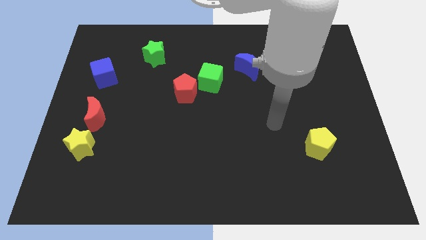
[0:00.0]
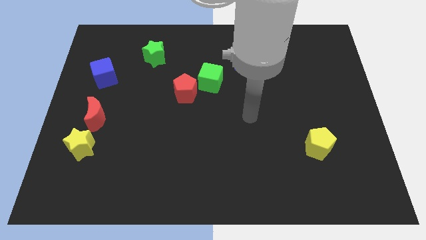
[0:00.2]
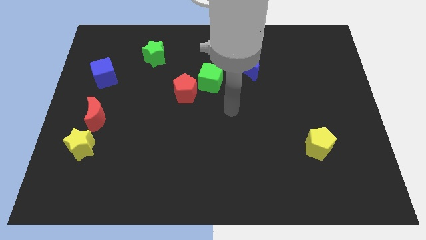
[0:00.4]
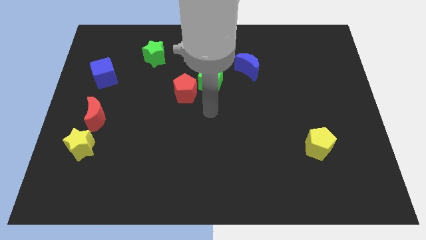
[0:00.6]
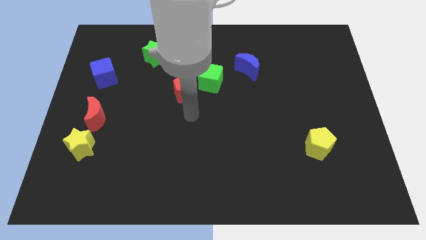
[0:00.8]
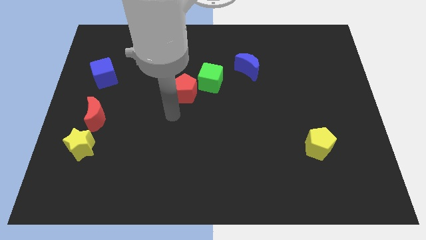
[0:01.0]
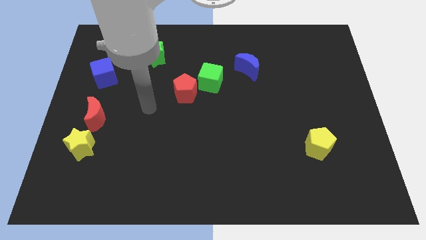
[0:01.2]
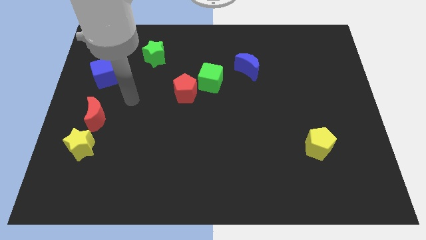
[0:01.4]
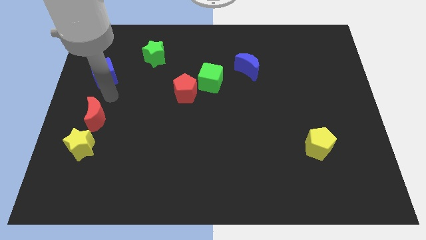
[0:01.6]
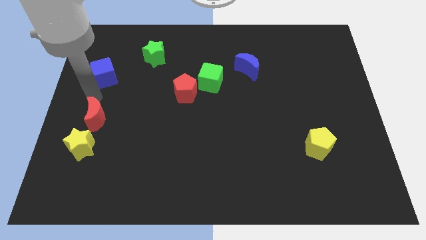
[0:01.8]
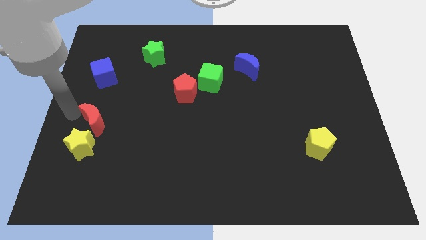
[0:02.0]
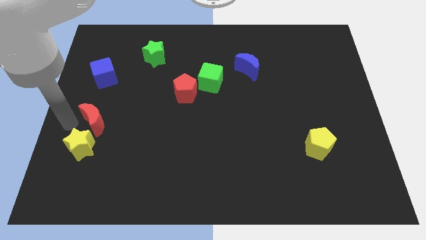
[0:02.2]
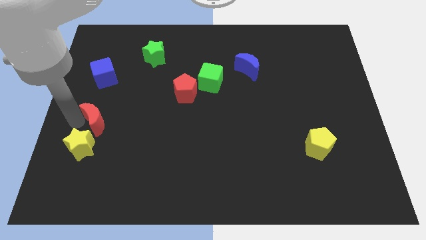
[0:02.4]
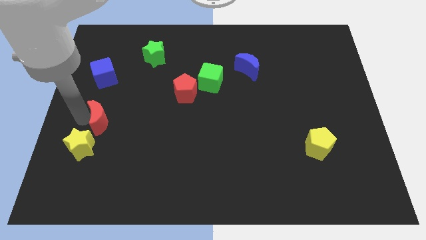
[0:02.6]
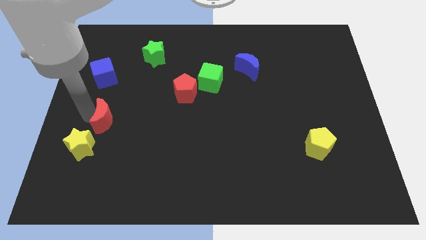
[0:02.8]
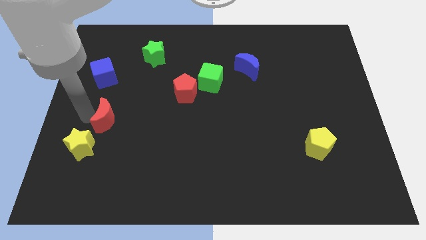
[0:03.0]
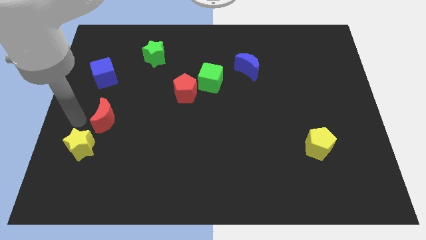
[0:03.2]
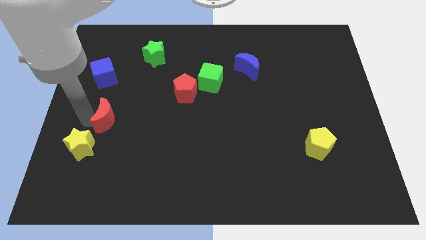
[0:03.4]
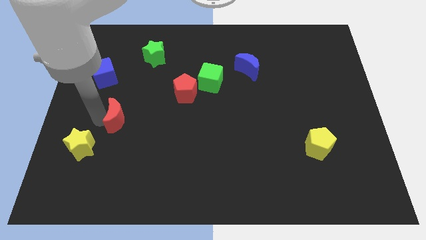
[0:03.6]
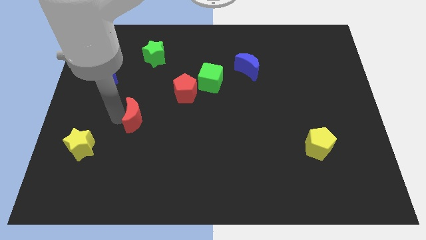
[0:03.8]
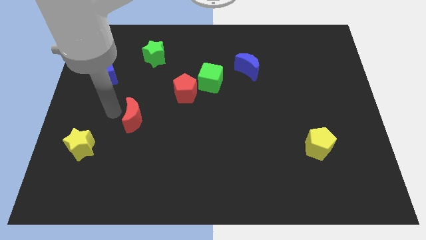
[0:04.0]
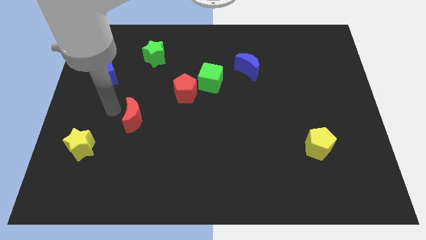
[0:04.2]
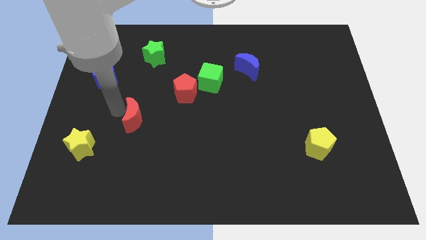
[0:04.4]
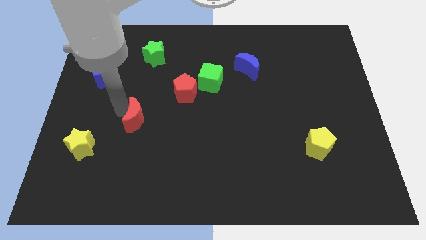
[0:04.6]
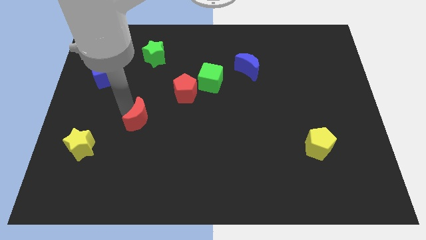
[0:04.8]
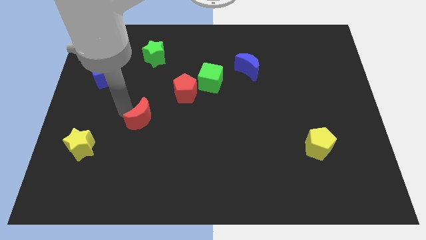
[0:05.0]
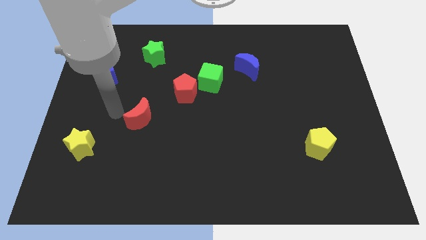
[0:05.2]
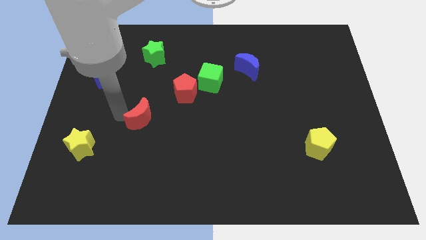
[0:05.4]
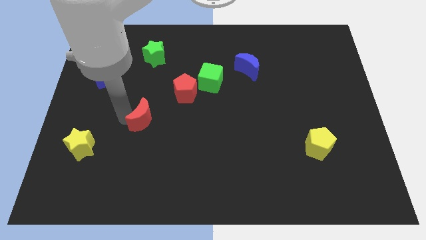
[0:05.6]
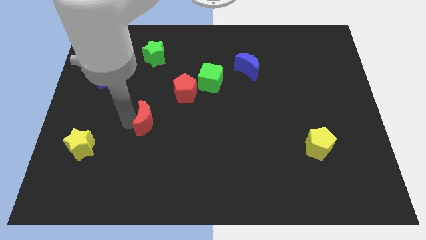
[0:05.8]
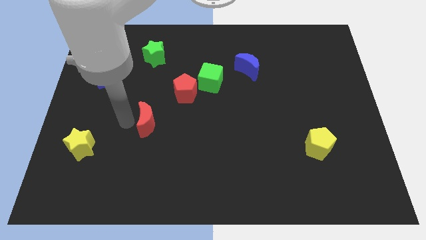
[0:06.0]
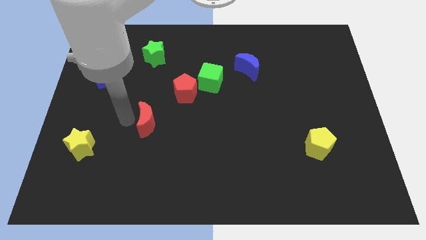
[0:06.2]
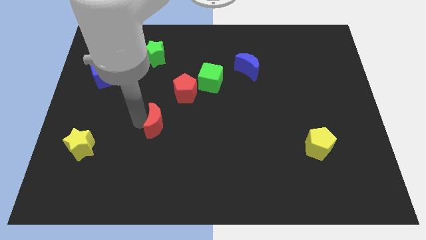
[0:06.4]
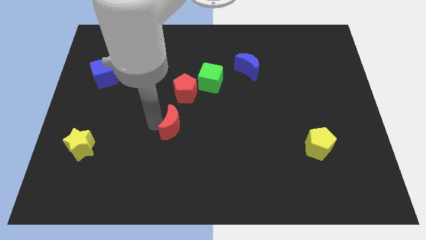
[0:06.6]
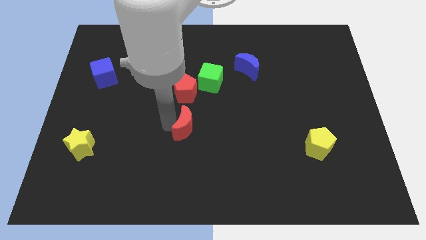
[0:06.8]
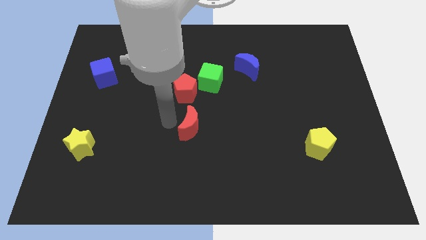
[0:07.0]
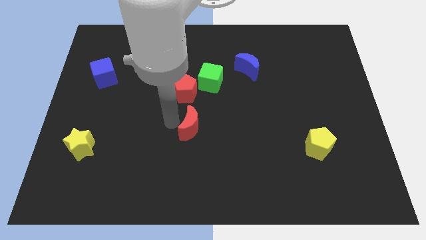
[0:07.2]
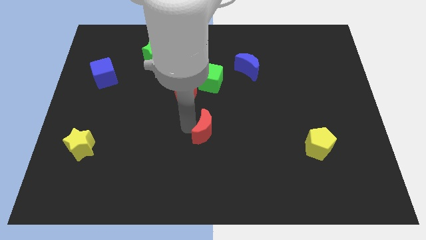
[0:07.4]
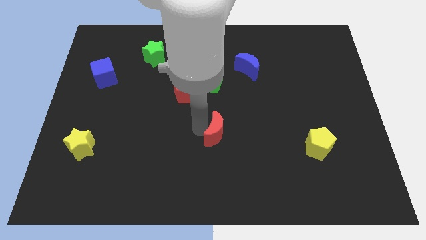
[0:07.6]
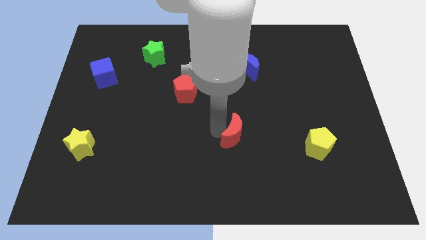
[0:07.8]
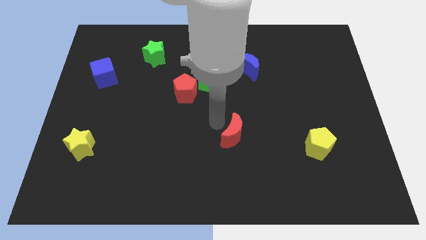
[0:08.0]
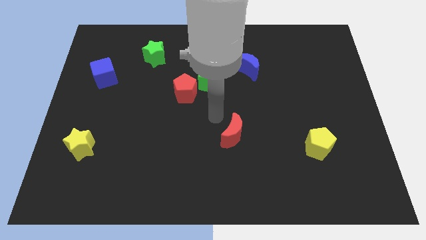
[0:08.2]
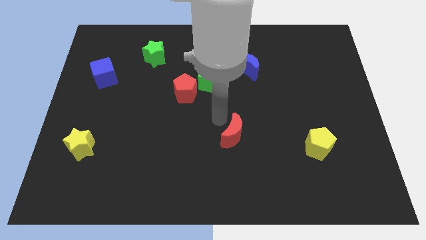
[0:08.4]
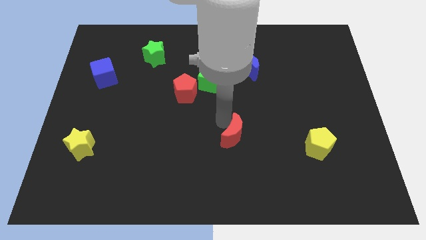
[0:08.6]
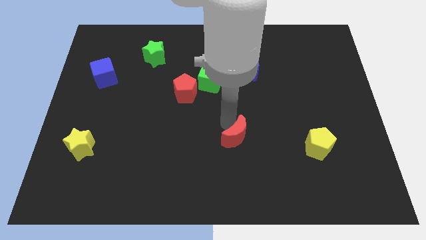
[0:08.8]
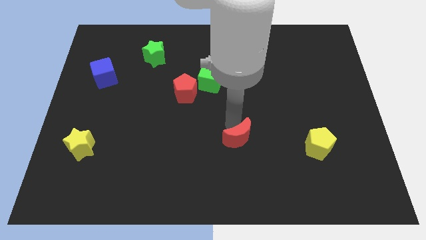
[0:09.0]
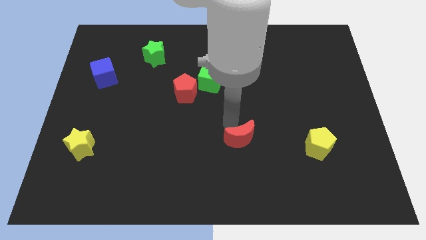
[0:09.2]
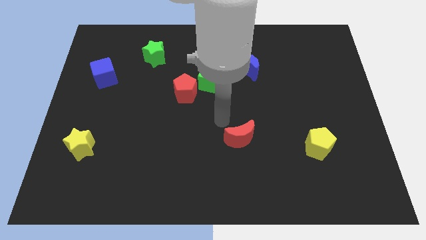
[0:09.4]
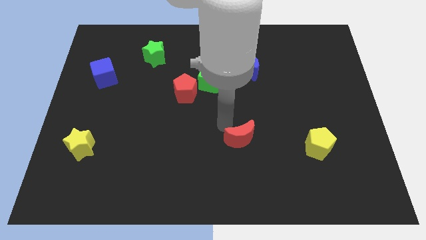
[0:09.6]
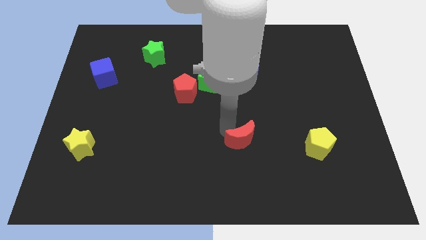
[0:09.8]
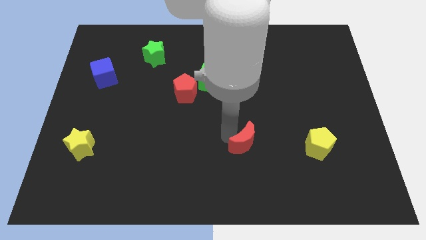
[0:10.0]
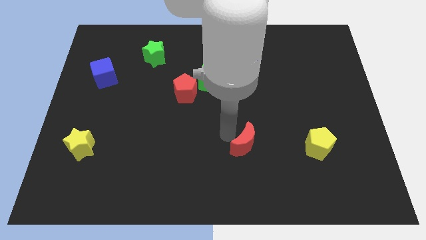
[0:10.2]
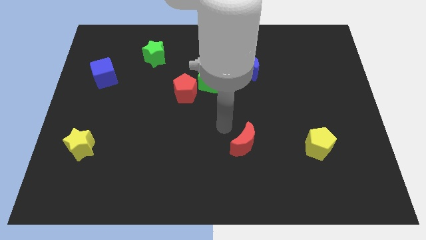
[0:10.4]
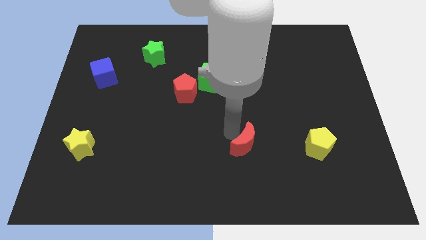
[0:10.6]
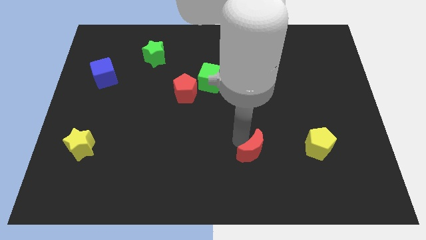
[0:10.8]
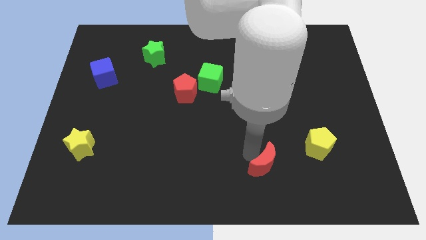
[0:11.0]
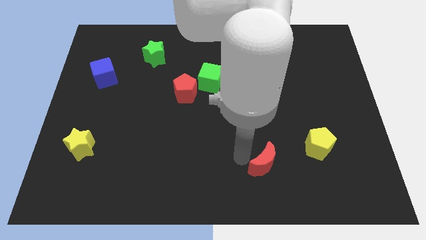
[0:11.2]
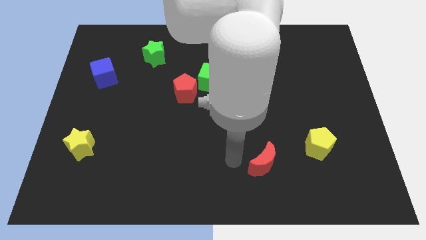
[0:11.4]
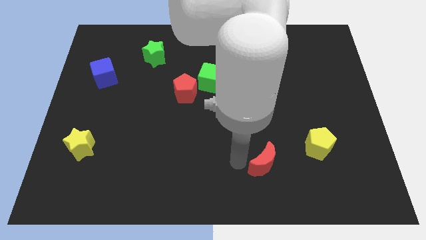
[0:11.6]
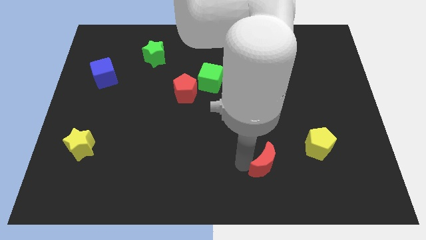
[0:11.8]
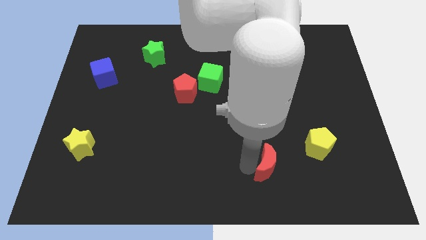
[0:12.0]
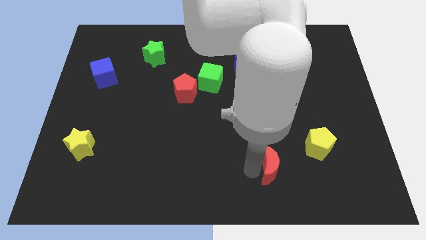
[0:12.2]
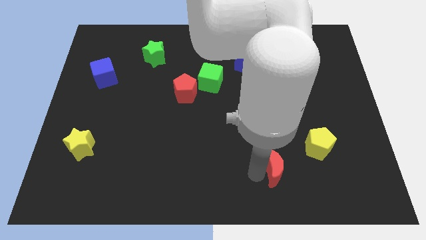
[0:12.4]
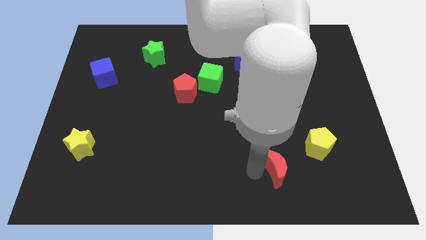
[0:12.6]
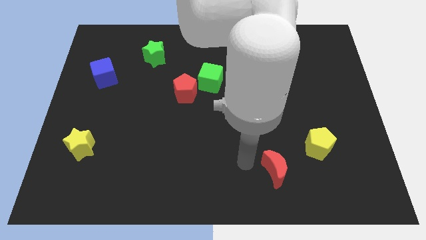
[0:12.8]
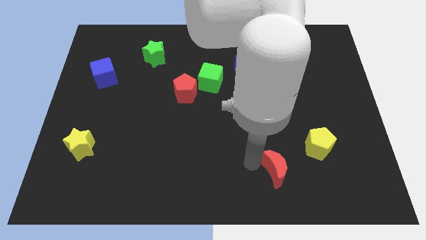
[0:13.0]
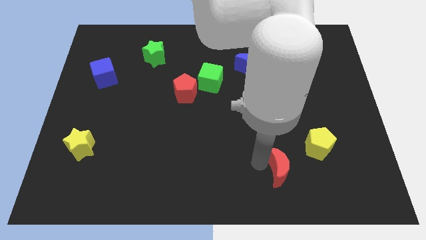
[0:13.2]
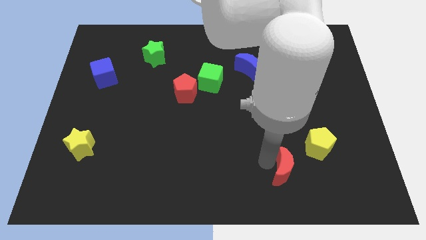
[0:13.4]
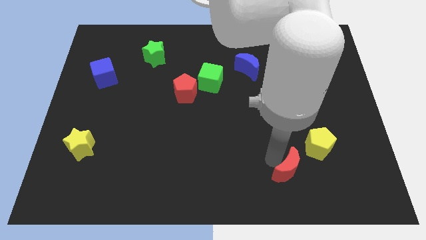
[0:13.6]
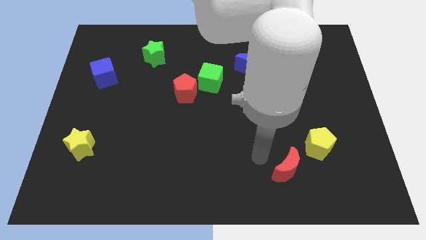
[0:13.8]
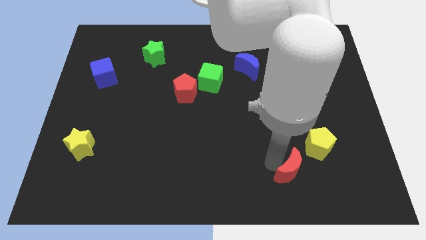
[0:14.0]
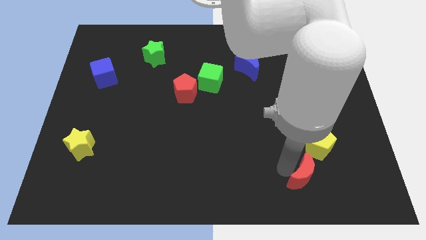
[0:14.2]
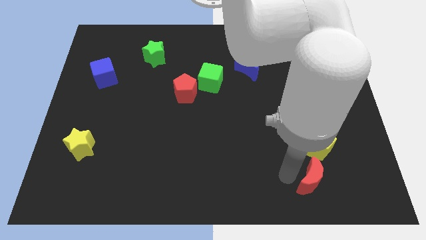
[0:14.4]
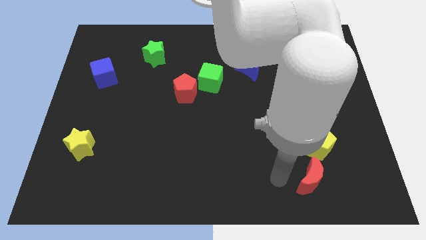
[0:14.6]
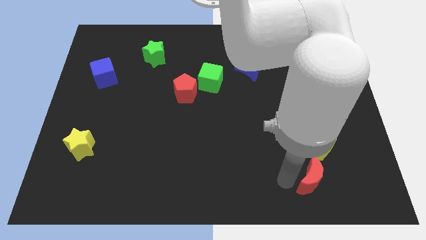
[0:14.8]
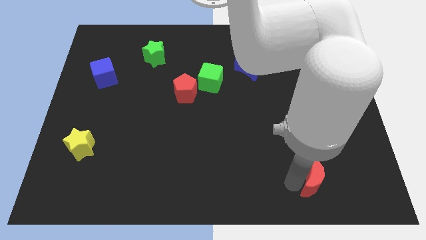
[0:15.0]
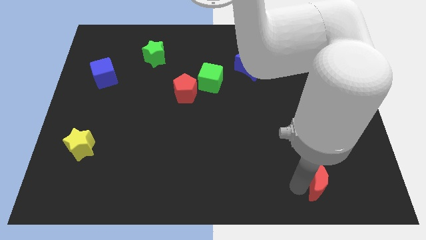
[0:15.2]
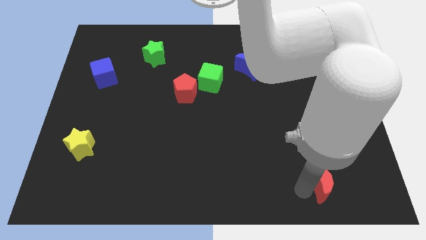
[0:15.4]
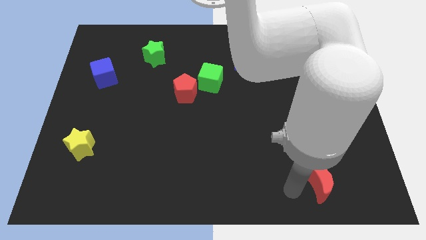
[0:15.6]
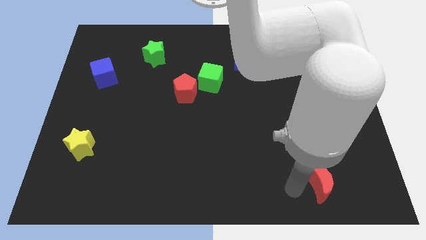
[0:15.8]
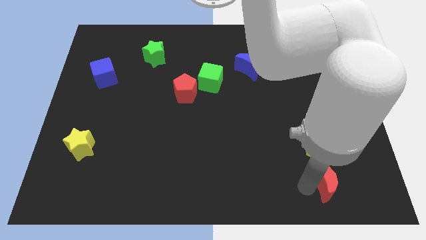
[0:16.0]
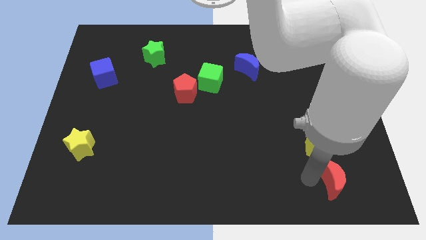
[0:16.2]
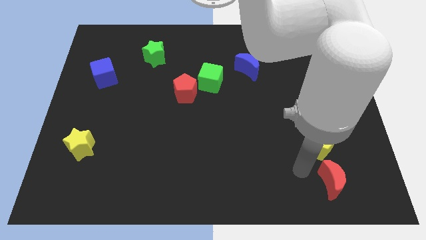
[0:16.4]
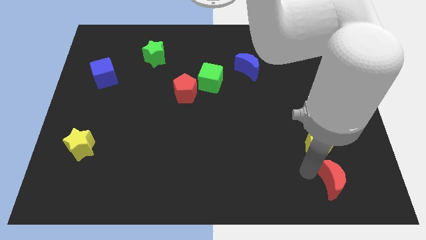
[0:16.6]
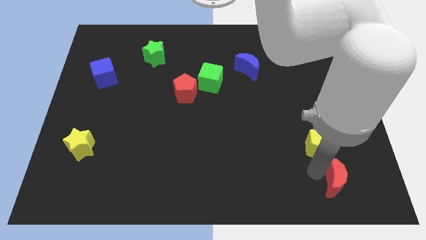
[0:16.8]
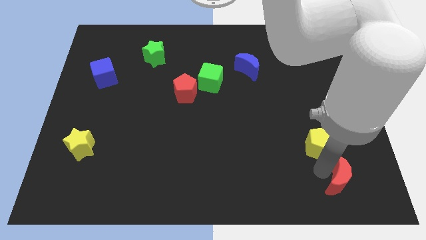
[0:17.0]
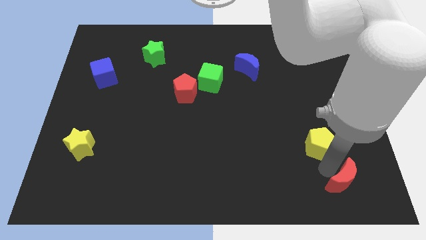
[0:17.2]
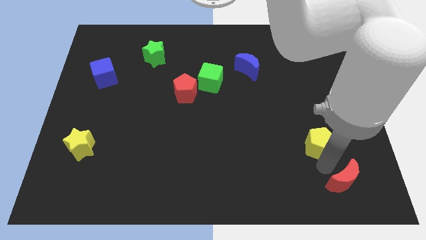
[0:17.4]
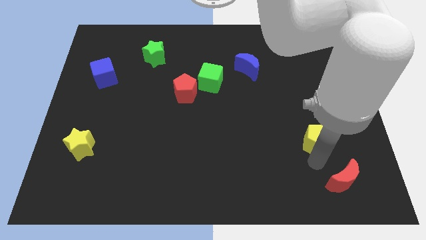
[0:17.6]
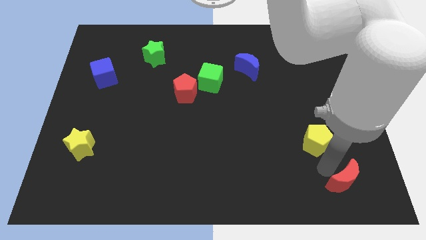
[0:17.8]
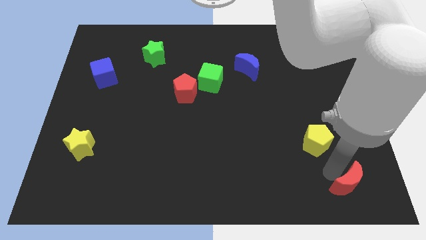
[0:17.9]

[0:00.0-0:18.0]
put the red moon to the bottom right corner
